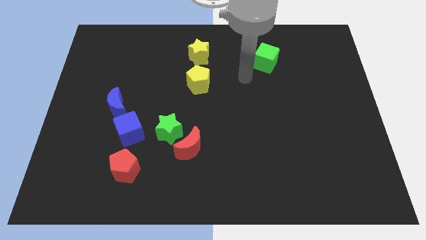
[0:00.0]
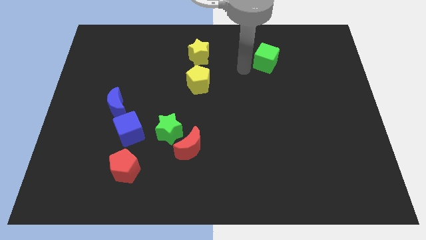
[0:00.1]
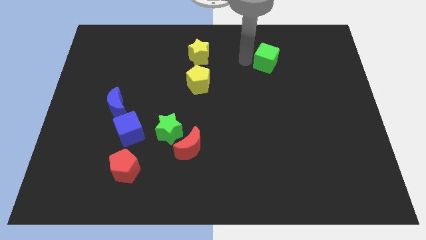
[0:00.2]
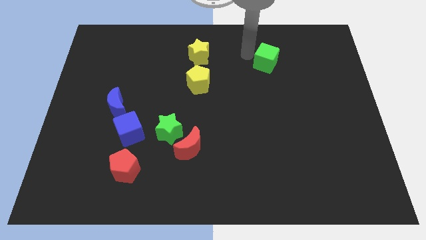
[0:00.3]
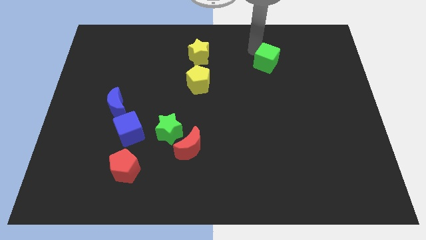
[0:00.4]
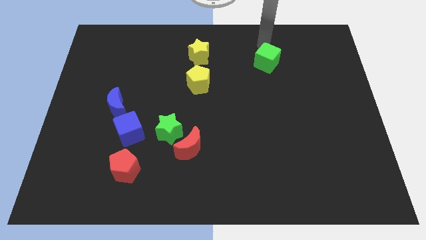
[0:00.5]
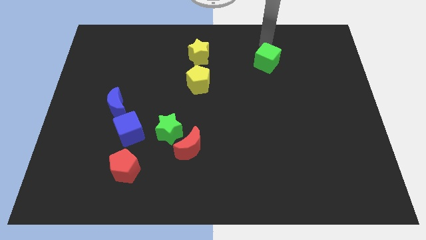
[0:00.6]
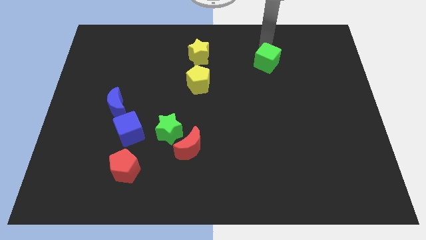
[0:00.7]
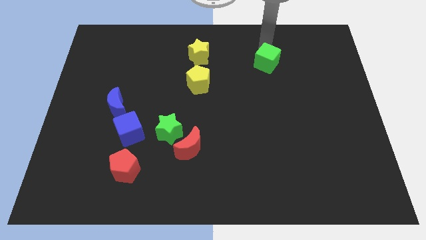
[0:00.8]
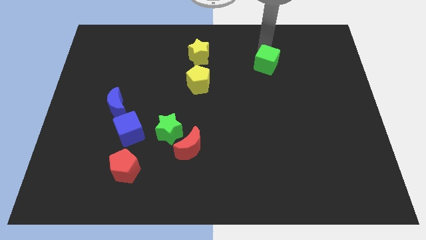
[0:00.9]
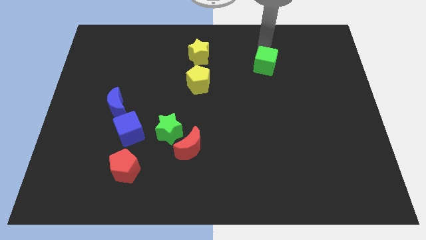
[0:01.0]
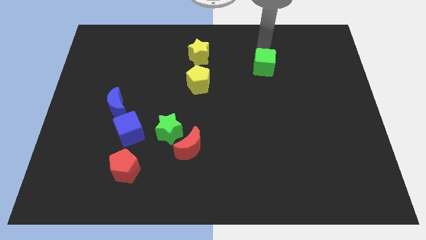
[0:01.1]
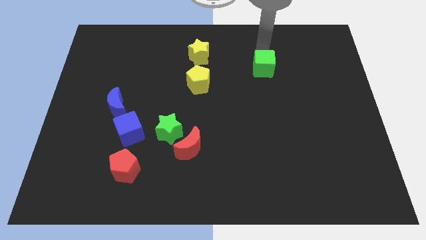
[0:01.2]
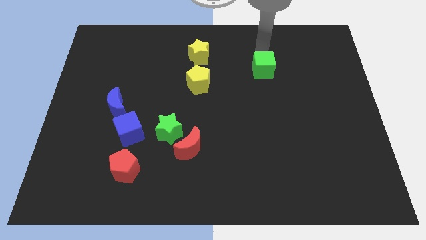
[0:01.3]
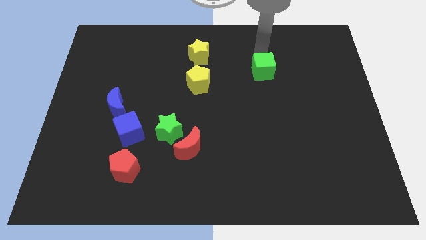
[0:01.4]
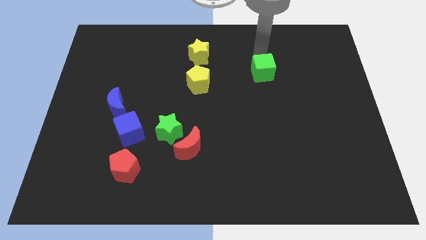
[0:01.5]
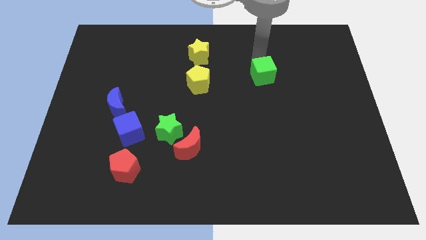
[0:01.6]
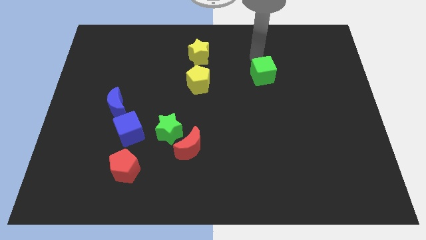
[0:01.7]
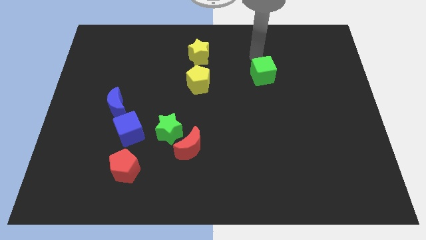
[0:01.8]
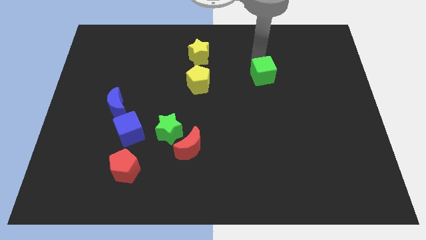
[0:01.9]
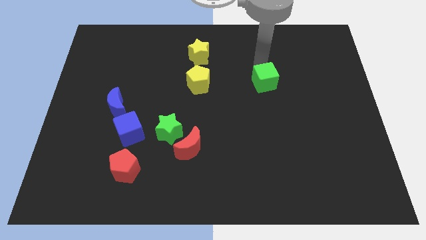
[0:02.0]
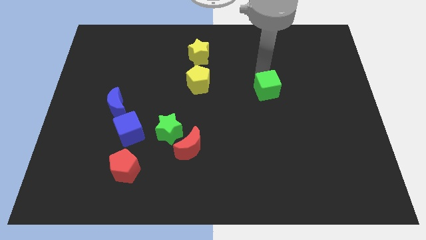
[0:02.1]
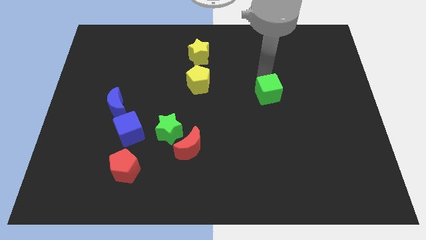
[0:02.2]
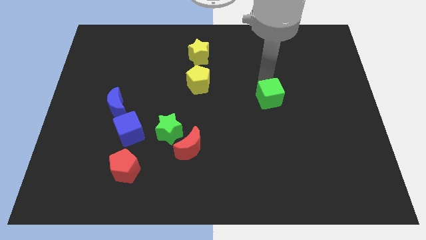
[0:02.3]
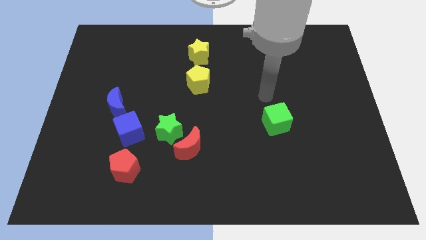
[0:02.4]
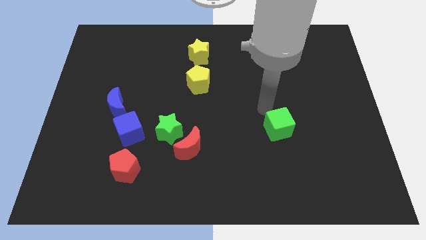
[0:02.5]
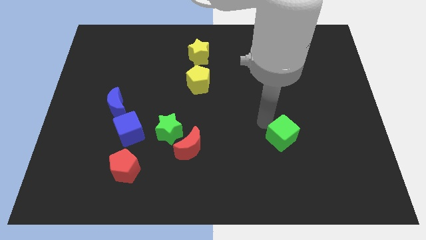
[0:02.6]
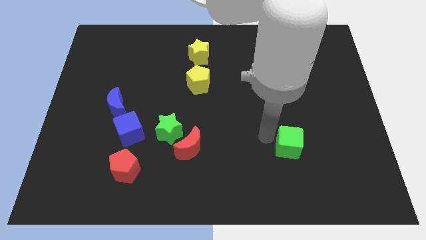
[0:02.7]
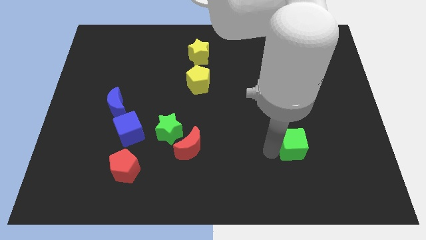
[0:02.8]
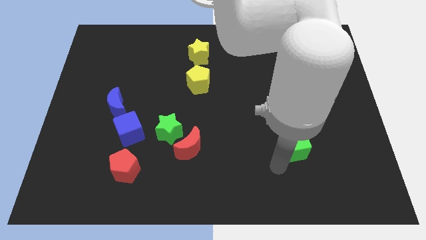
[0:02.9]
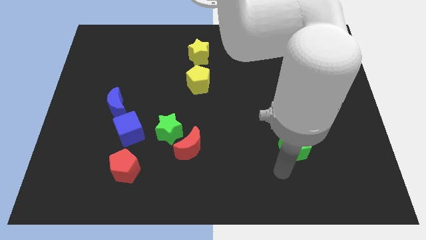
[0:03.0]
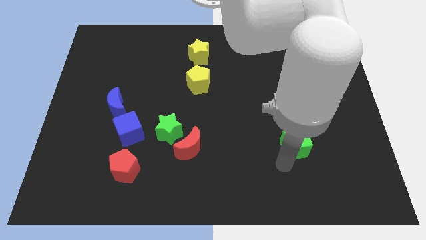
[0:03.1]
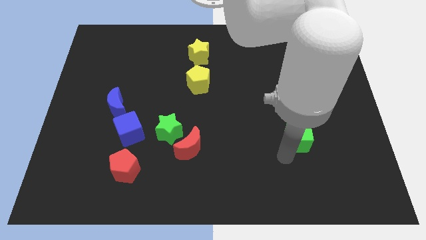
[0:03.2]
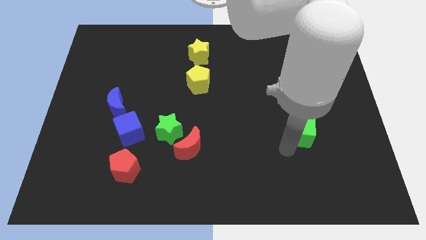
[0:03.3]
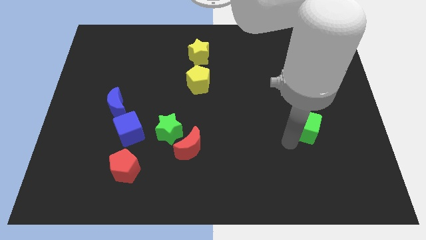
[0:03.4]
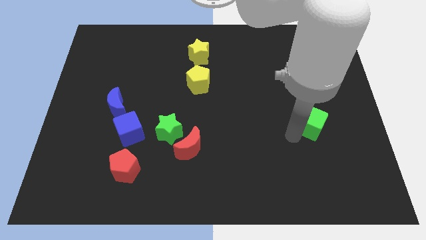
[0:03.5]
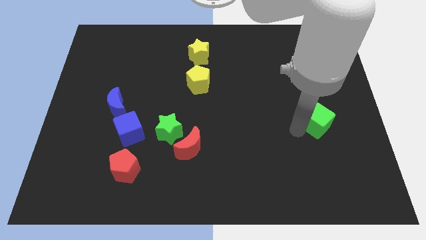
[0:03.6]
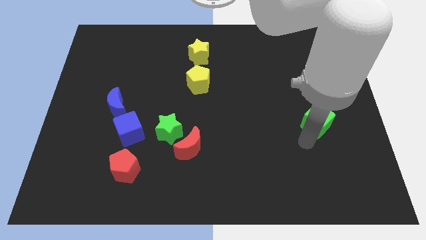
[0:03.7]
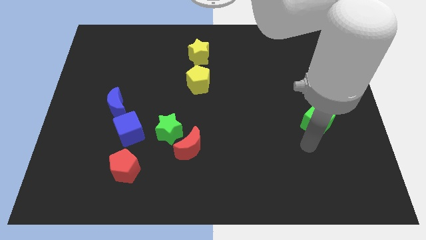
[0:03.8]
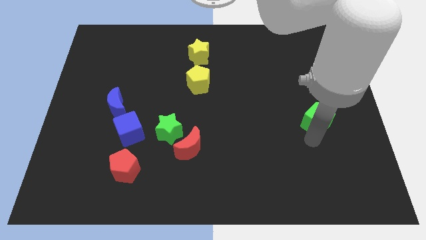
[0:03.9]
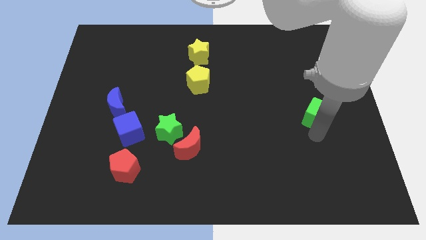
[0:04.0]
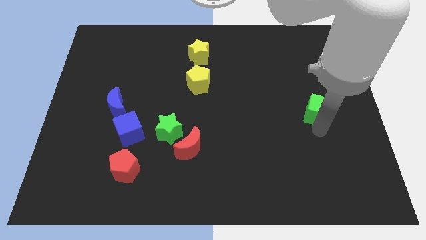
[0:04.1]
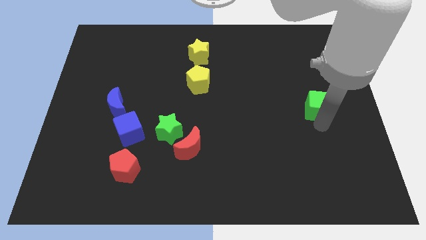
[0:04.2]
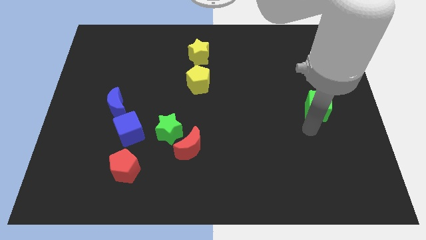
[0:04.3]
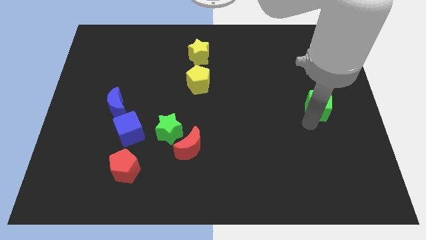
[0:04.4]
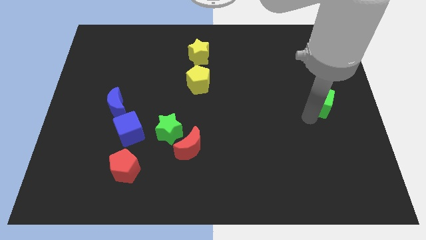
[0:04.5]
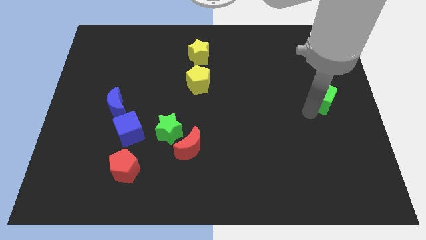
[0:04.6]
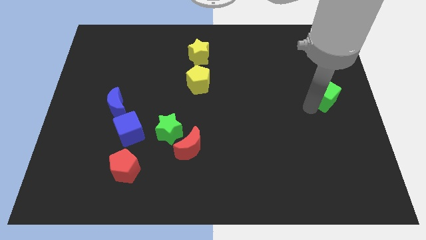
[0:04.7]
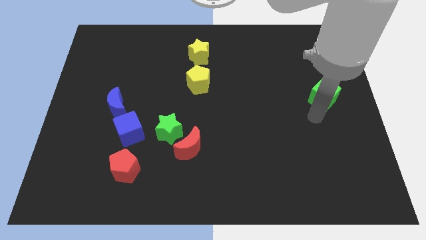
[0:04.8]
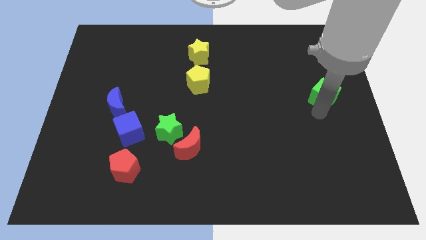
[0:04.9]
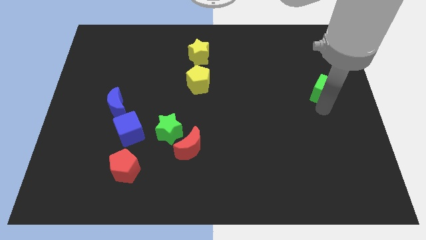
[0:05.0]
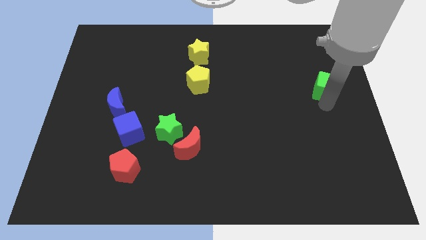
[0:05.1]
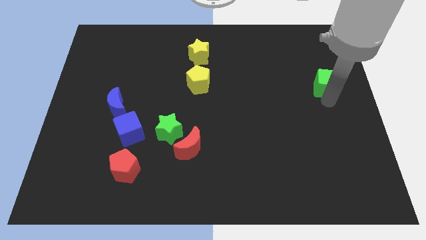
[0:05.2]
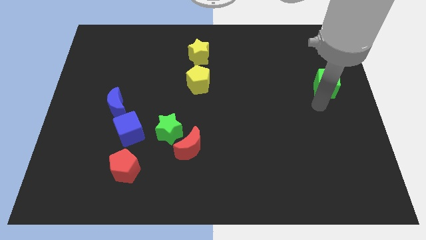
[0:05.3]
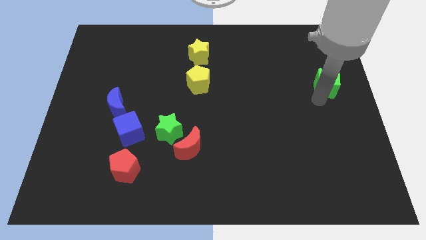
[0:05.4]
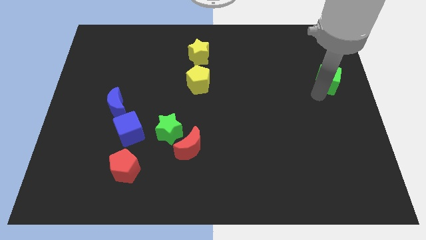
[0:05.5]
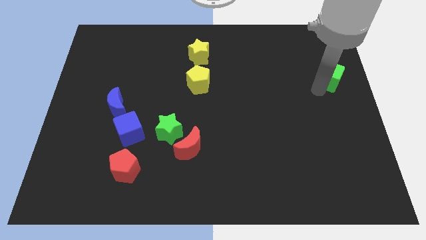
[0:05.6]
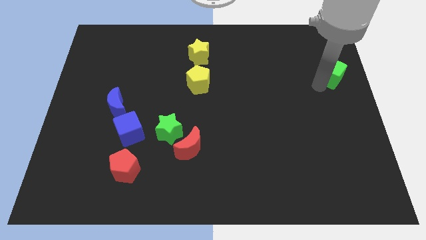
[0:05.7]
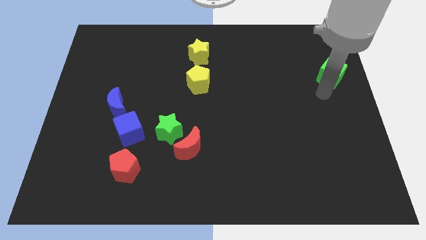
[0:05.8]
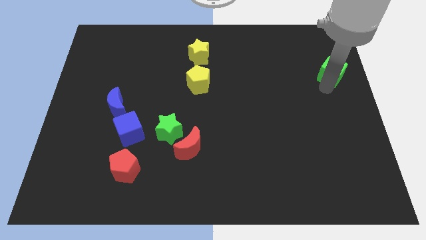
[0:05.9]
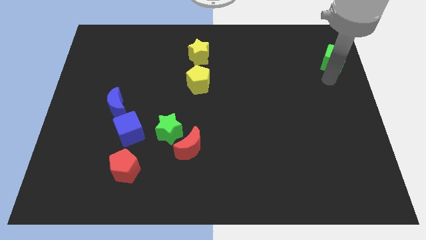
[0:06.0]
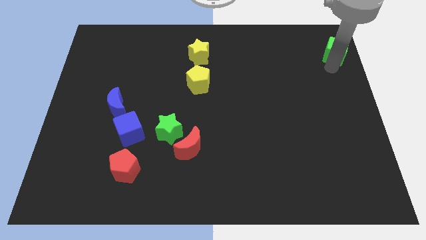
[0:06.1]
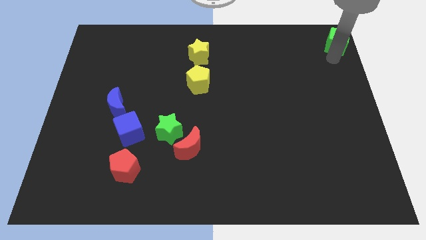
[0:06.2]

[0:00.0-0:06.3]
push the green cube to the top right of the board

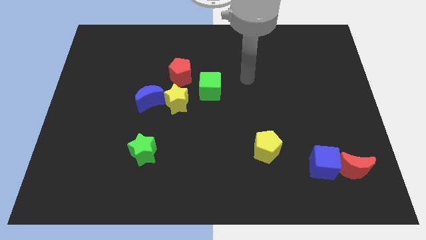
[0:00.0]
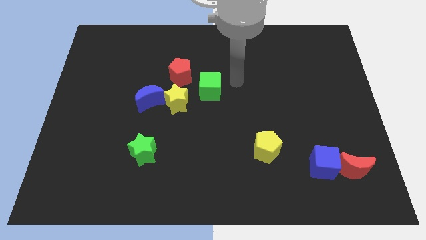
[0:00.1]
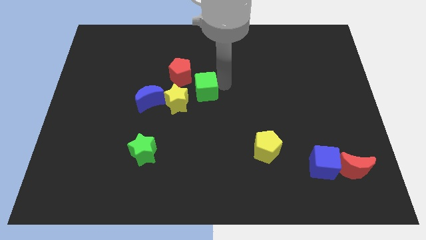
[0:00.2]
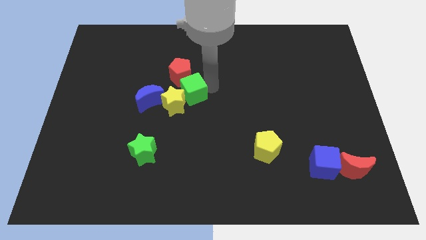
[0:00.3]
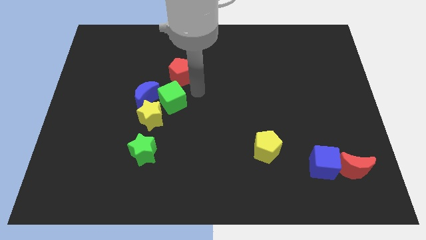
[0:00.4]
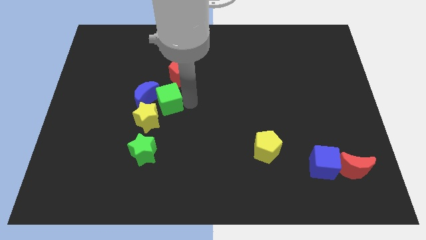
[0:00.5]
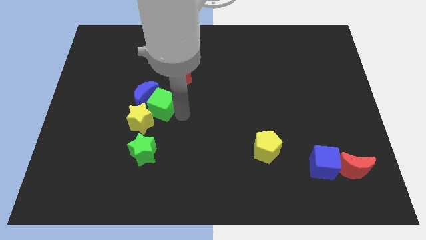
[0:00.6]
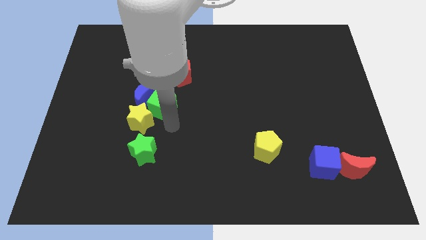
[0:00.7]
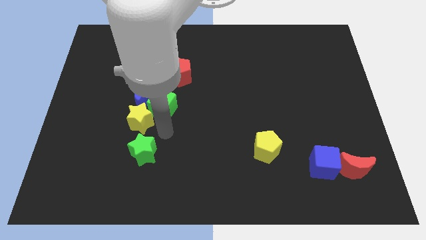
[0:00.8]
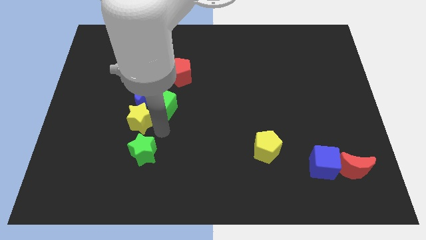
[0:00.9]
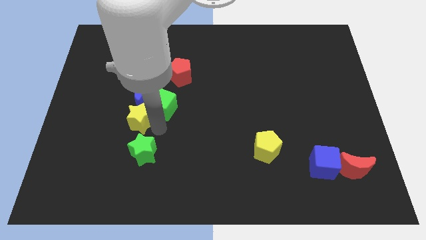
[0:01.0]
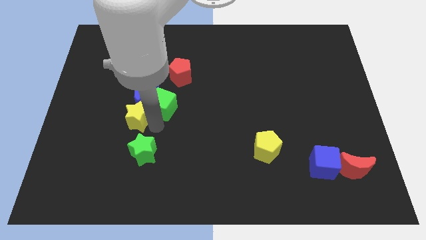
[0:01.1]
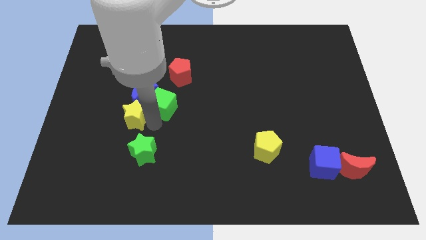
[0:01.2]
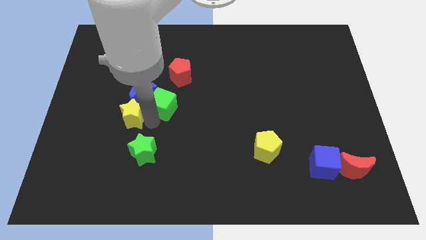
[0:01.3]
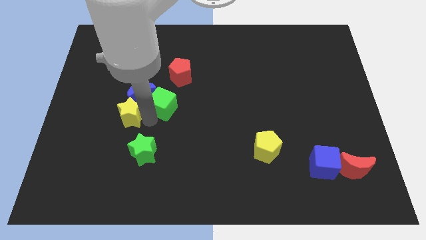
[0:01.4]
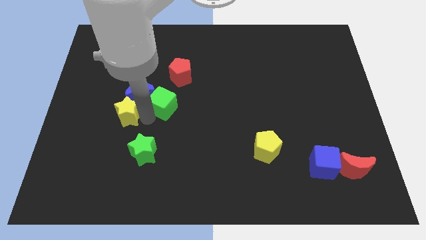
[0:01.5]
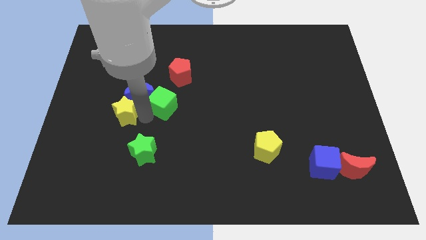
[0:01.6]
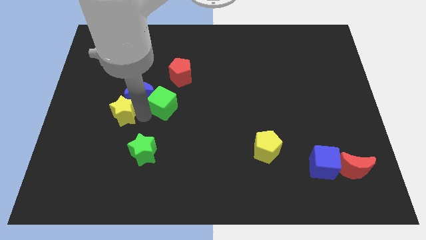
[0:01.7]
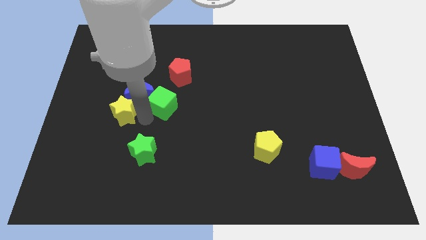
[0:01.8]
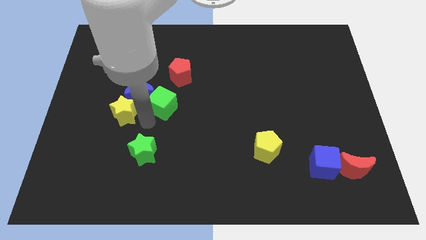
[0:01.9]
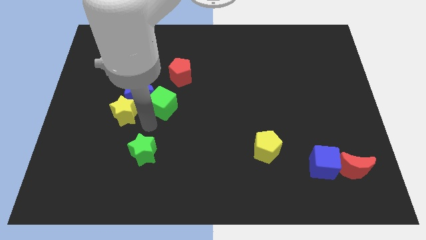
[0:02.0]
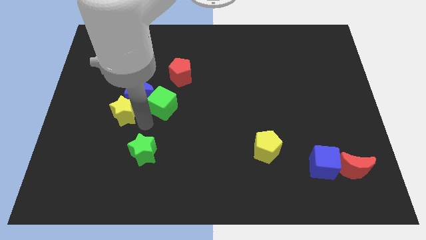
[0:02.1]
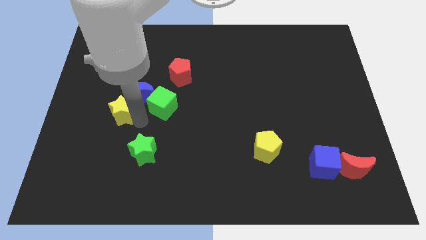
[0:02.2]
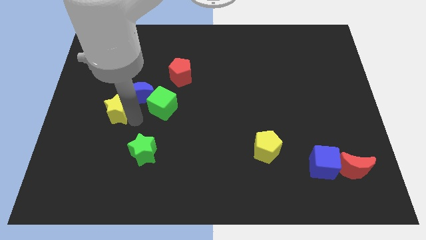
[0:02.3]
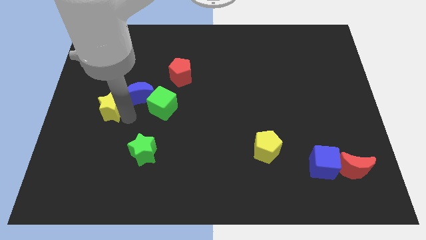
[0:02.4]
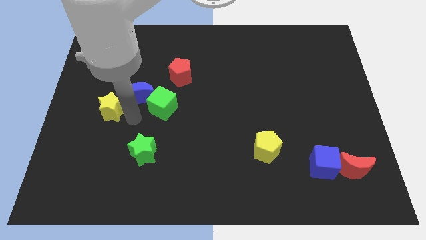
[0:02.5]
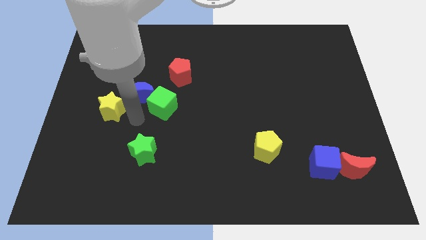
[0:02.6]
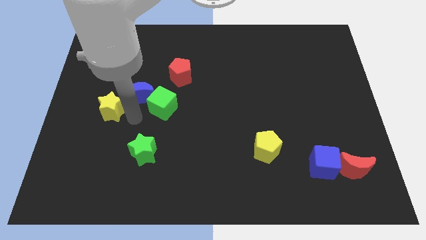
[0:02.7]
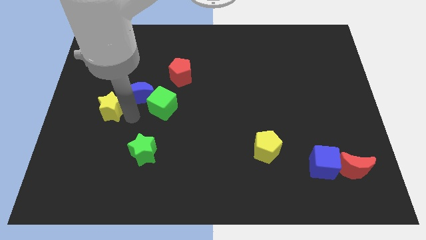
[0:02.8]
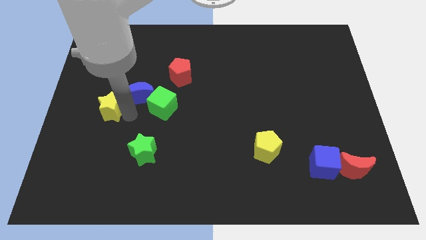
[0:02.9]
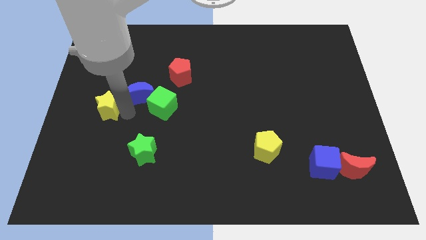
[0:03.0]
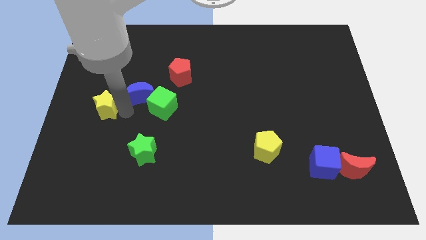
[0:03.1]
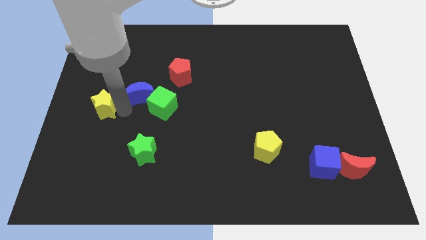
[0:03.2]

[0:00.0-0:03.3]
move the yellow star to the left side
